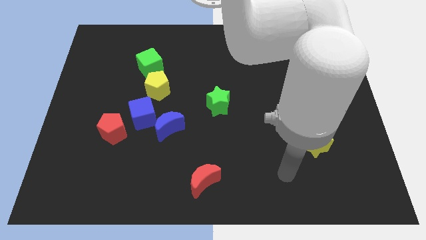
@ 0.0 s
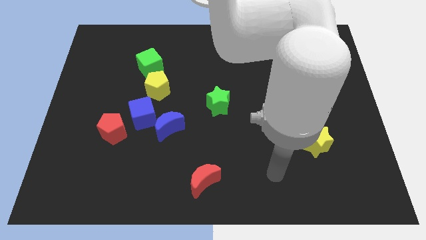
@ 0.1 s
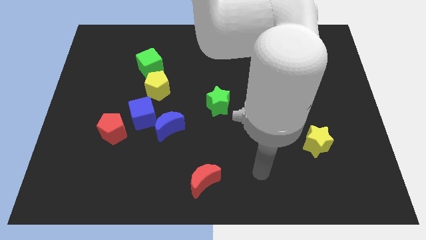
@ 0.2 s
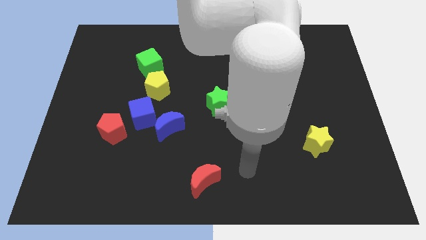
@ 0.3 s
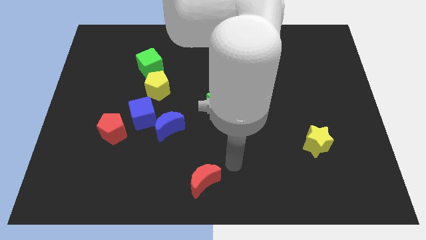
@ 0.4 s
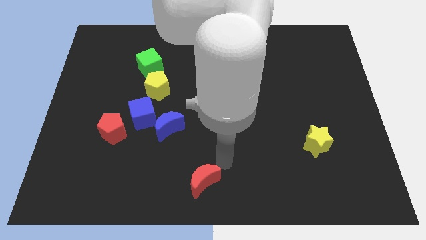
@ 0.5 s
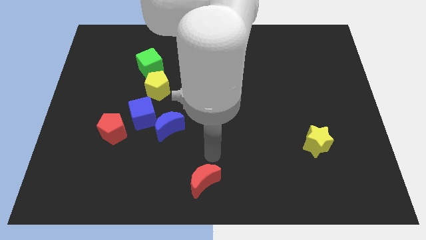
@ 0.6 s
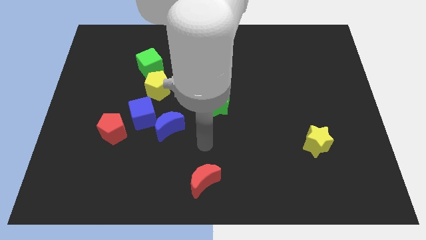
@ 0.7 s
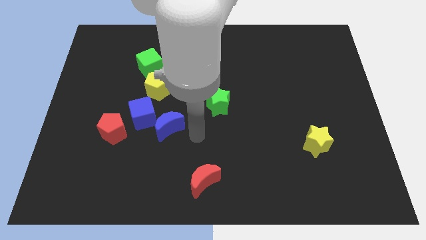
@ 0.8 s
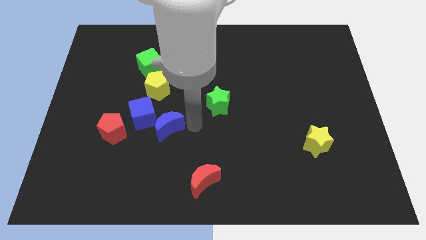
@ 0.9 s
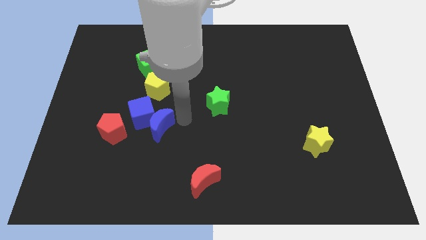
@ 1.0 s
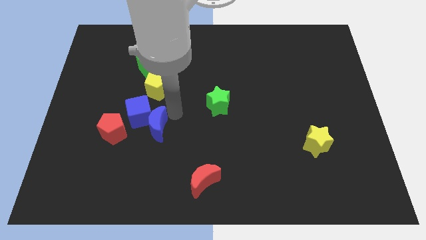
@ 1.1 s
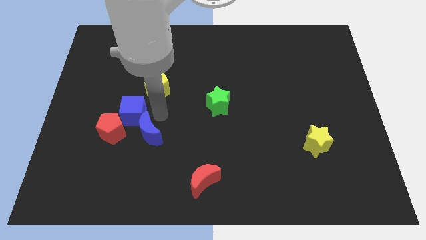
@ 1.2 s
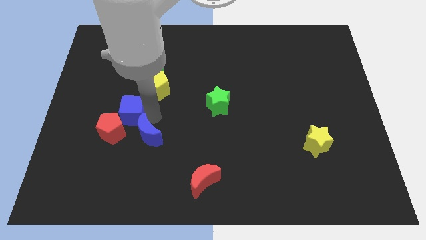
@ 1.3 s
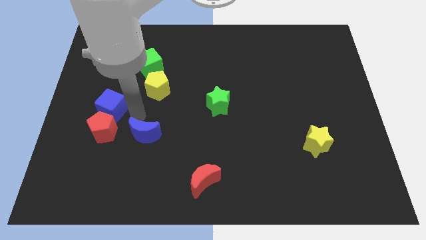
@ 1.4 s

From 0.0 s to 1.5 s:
pull the blue moon apart from the blue cube

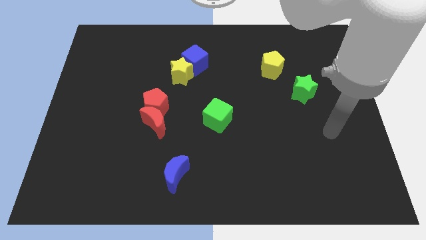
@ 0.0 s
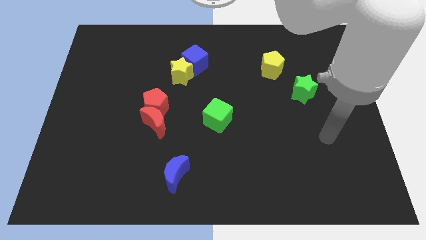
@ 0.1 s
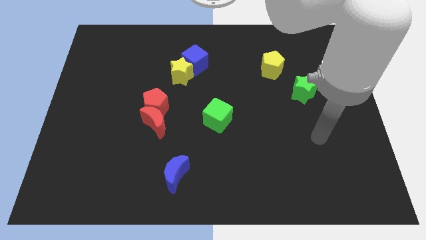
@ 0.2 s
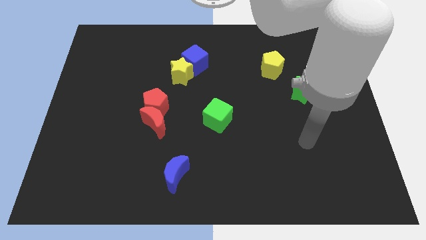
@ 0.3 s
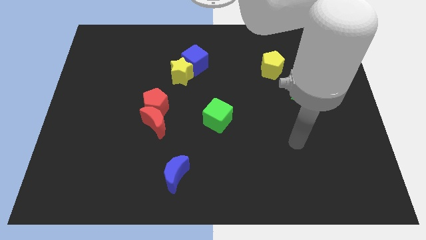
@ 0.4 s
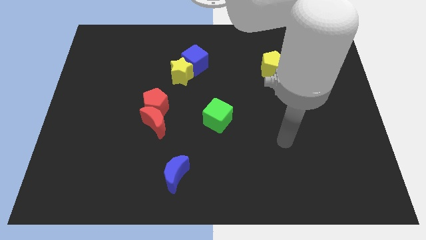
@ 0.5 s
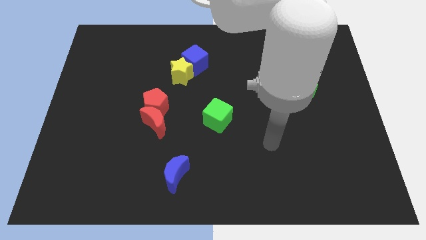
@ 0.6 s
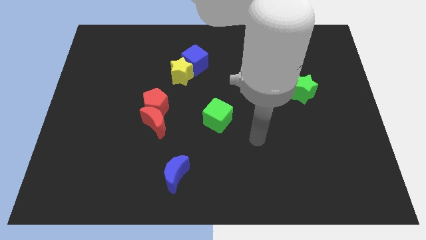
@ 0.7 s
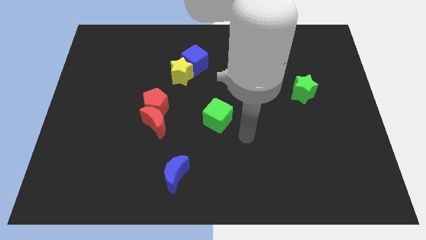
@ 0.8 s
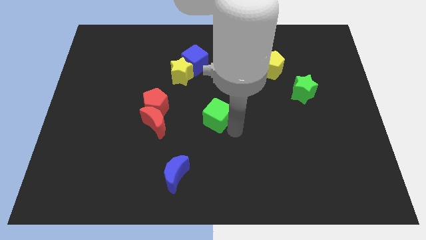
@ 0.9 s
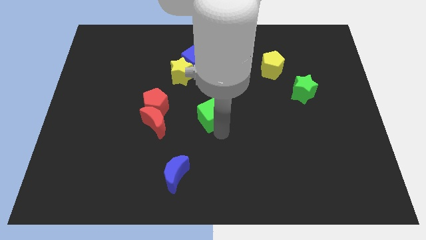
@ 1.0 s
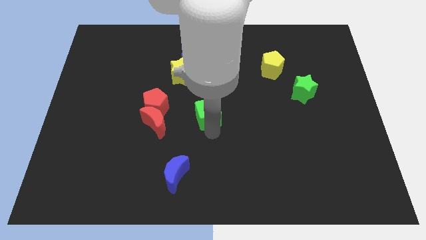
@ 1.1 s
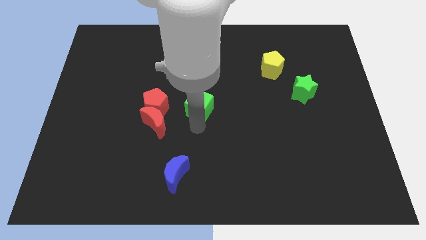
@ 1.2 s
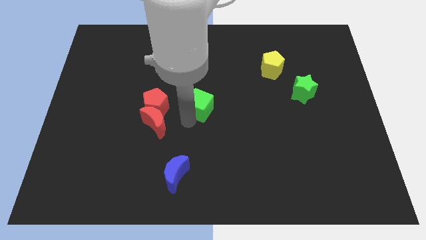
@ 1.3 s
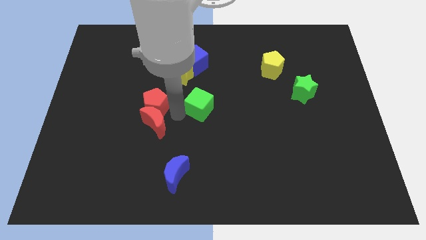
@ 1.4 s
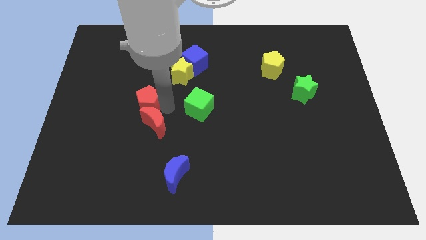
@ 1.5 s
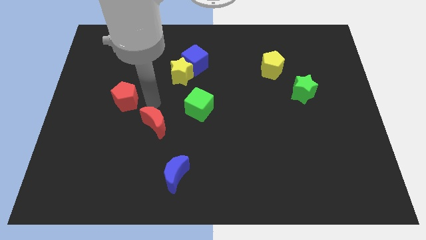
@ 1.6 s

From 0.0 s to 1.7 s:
pull the red moon apart from the red pentagon

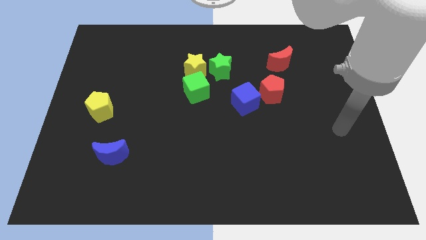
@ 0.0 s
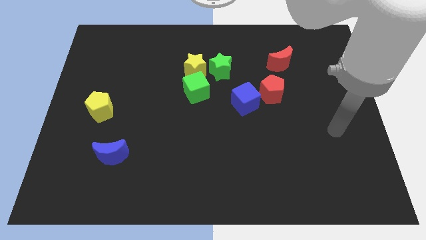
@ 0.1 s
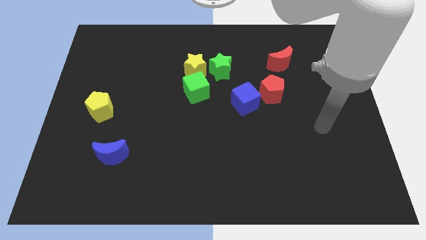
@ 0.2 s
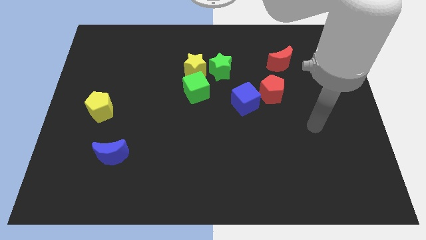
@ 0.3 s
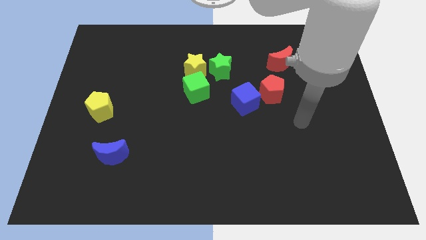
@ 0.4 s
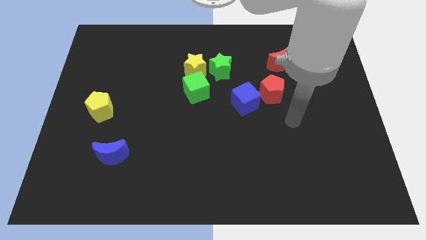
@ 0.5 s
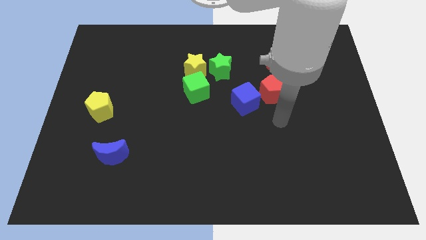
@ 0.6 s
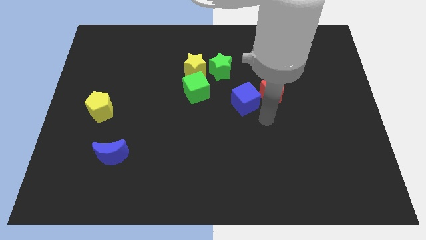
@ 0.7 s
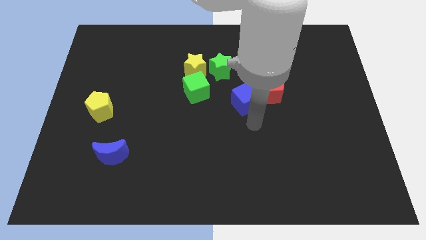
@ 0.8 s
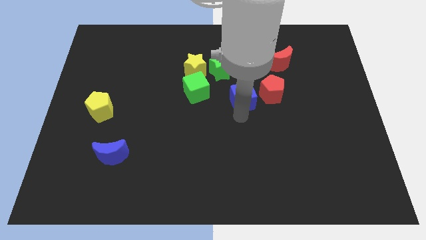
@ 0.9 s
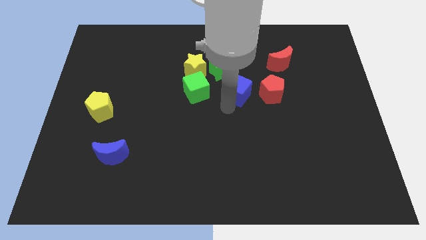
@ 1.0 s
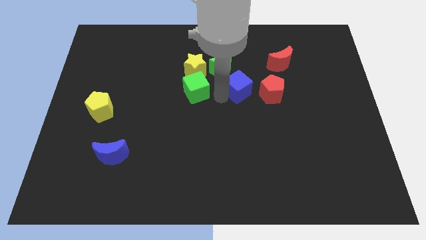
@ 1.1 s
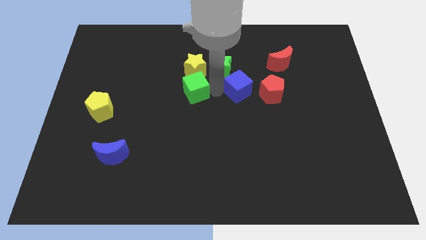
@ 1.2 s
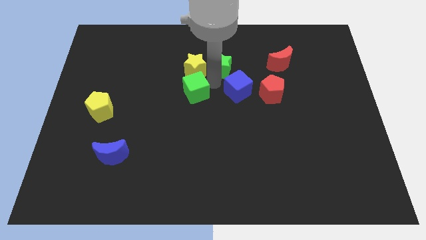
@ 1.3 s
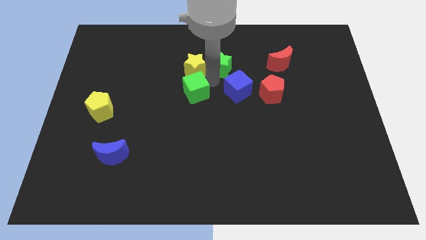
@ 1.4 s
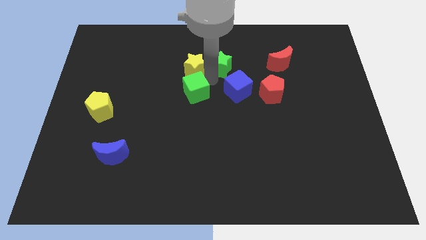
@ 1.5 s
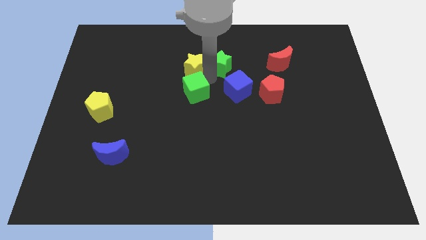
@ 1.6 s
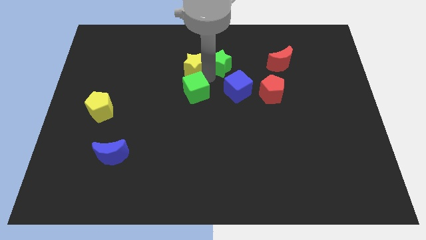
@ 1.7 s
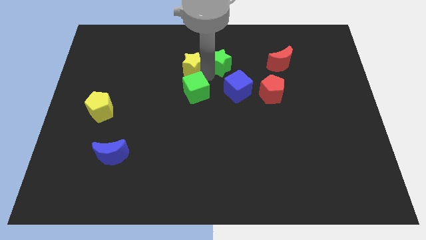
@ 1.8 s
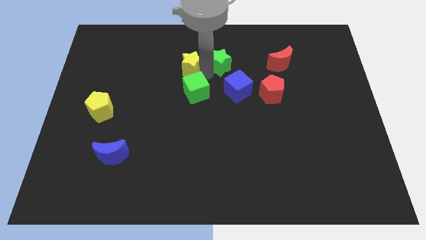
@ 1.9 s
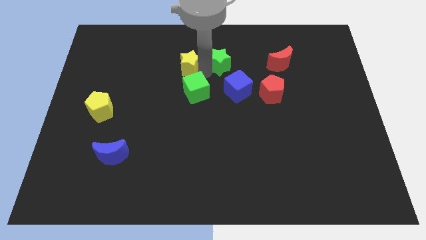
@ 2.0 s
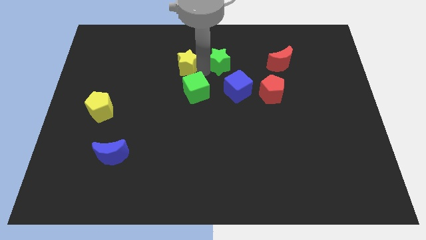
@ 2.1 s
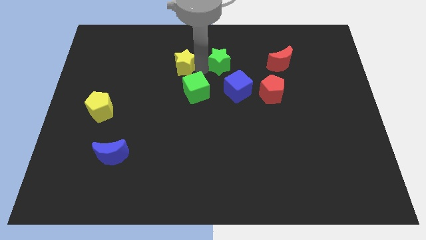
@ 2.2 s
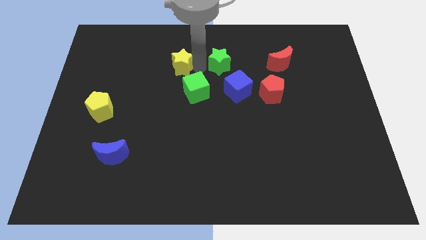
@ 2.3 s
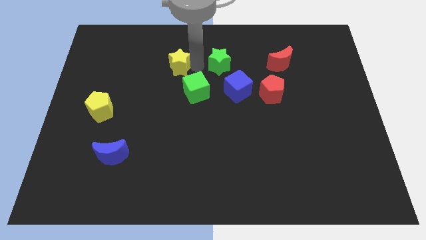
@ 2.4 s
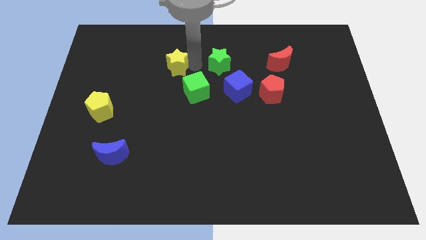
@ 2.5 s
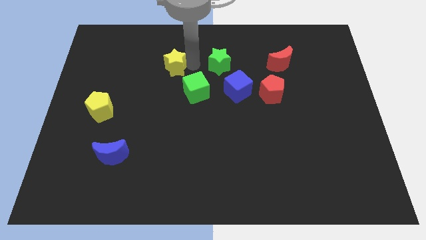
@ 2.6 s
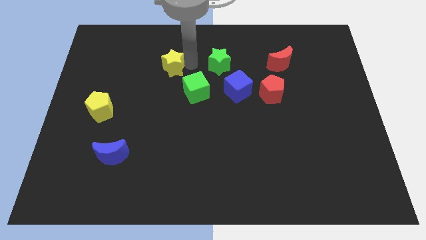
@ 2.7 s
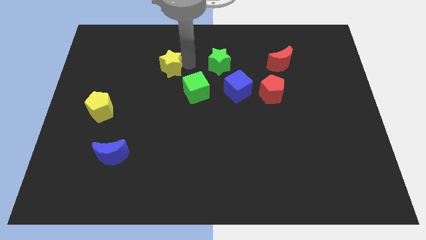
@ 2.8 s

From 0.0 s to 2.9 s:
separate the yellow star from the green star and green cube

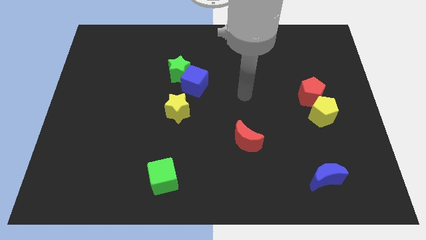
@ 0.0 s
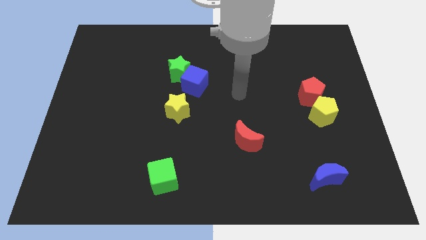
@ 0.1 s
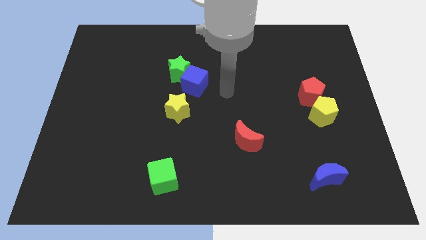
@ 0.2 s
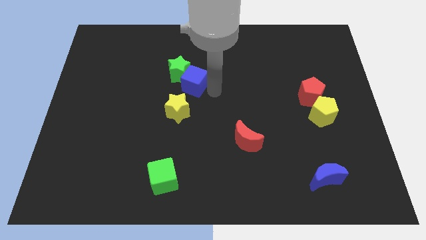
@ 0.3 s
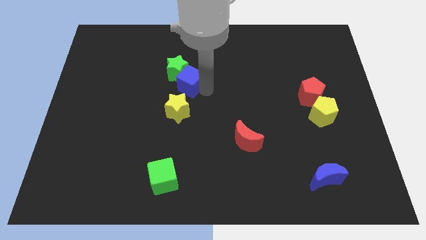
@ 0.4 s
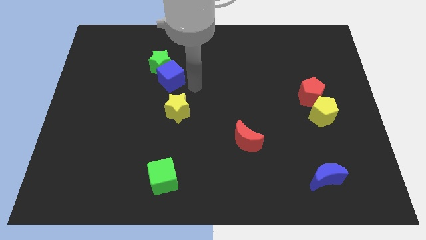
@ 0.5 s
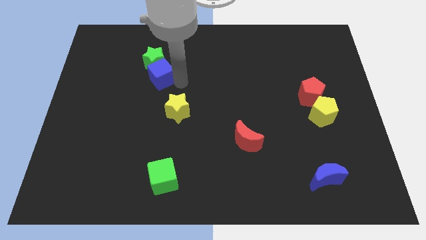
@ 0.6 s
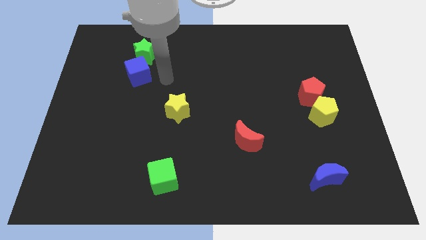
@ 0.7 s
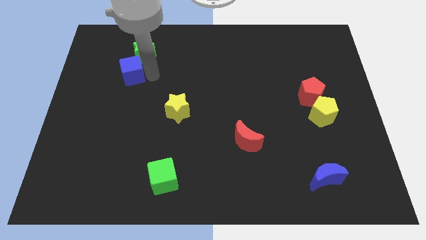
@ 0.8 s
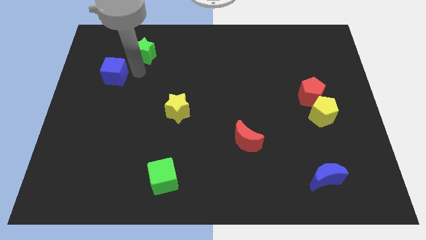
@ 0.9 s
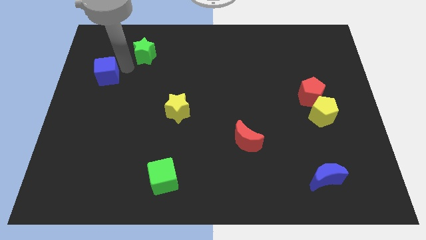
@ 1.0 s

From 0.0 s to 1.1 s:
separate the green star from the blue cube

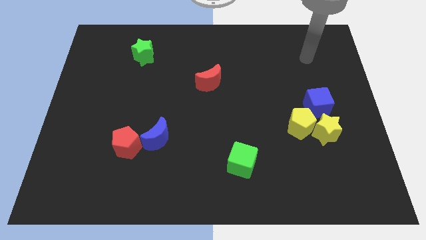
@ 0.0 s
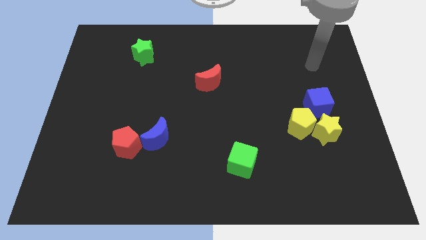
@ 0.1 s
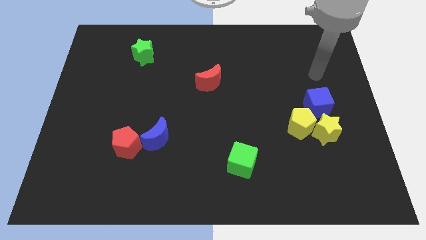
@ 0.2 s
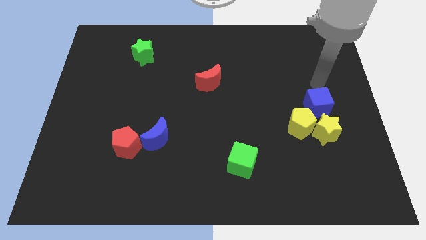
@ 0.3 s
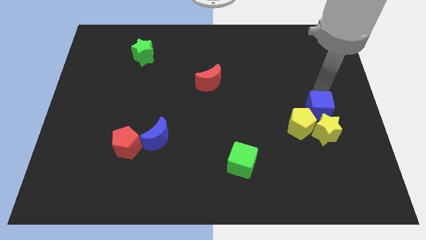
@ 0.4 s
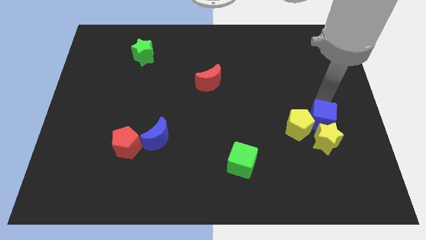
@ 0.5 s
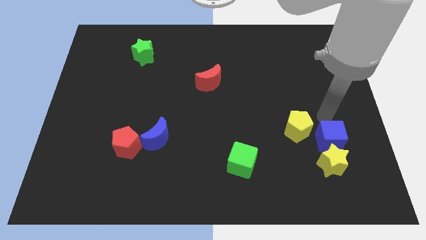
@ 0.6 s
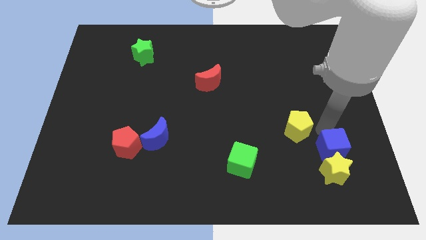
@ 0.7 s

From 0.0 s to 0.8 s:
move the yellow pentagon away from the yellow star and blue cube

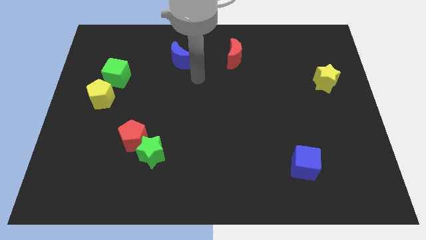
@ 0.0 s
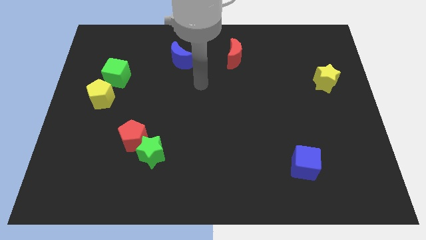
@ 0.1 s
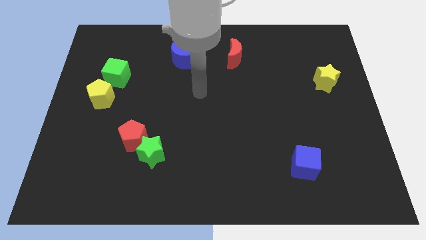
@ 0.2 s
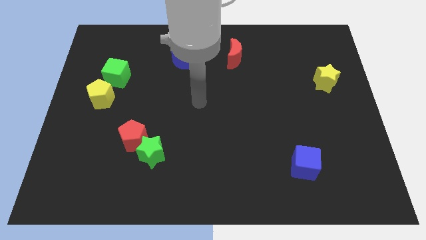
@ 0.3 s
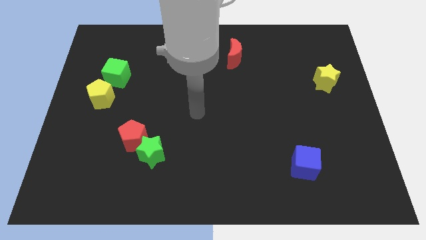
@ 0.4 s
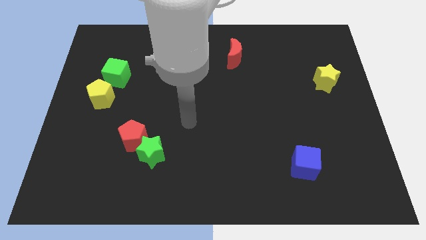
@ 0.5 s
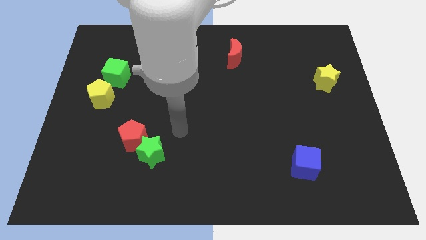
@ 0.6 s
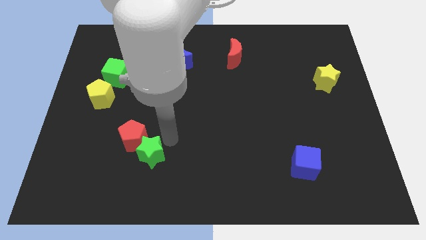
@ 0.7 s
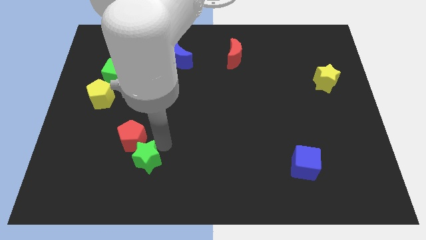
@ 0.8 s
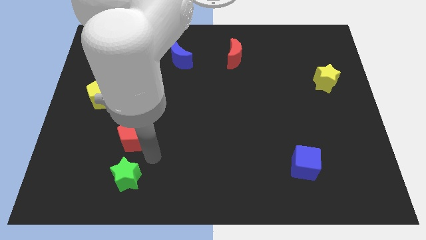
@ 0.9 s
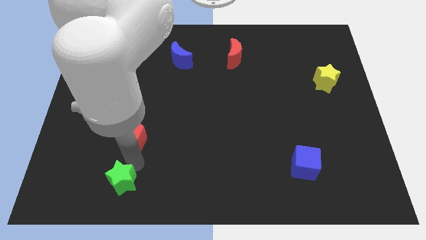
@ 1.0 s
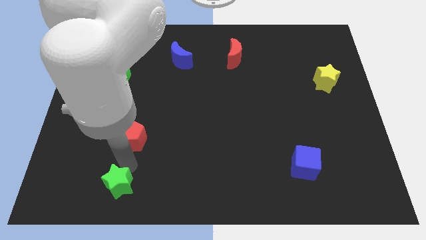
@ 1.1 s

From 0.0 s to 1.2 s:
separate the red pentagon from the green star

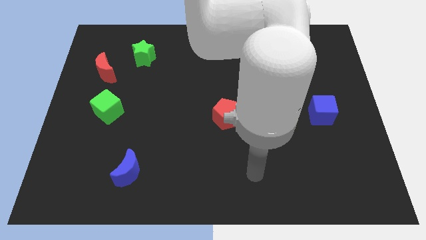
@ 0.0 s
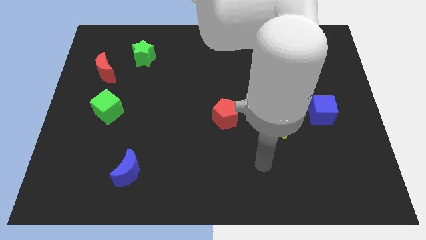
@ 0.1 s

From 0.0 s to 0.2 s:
move the blue cube away from the yellow star

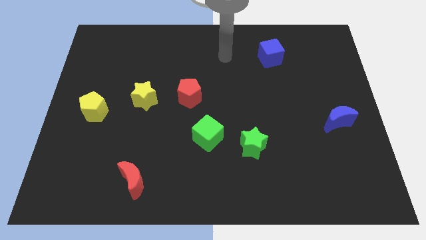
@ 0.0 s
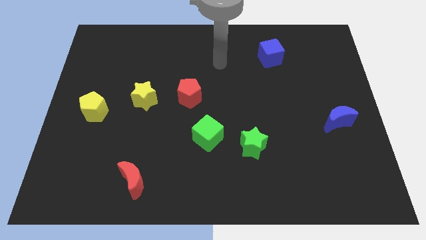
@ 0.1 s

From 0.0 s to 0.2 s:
separate the green cube from the green star
